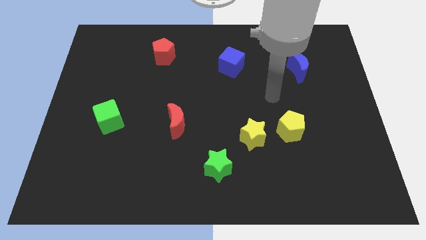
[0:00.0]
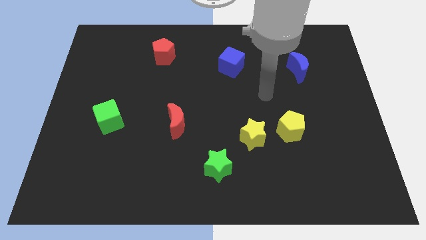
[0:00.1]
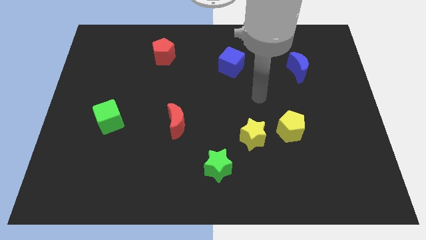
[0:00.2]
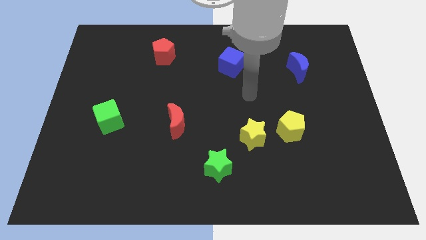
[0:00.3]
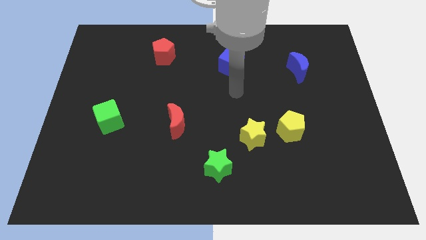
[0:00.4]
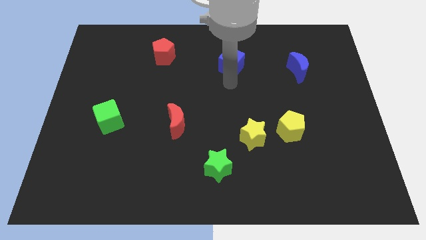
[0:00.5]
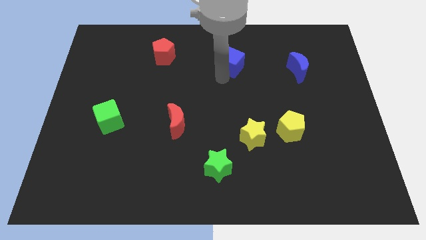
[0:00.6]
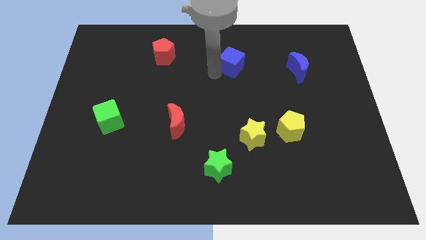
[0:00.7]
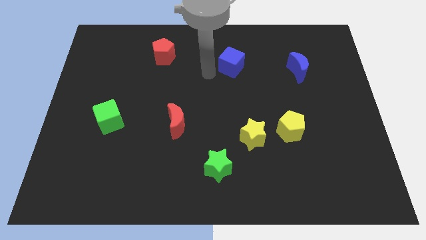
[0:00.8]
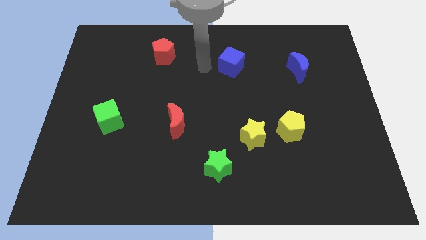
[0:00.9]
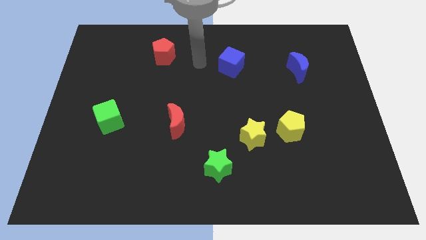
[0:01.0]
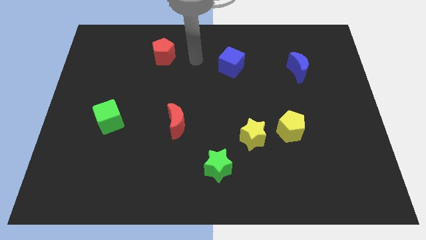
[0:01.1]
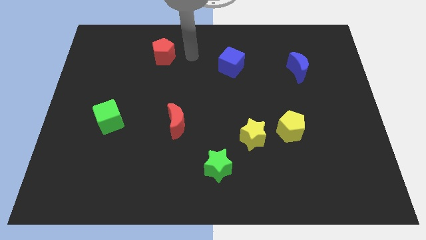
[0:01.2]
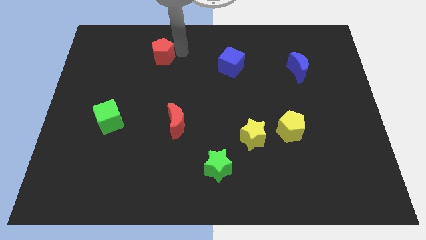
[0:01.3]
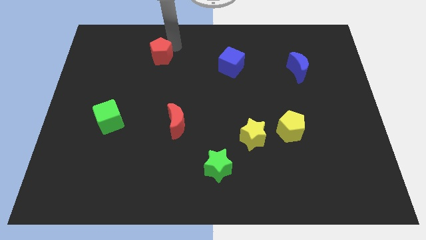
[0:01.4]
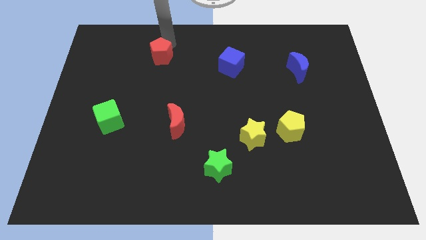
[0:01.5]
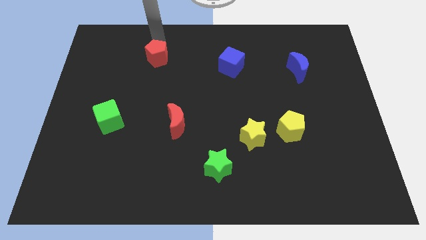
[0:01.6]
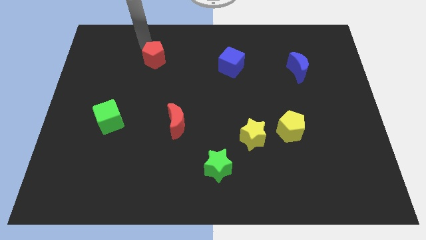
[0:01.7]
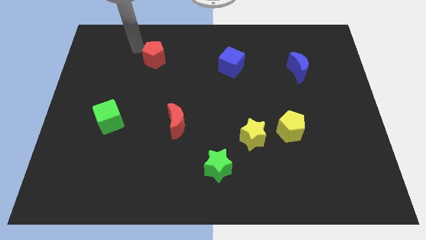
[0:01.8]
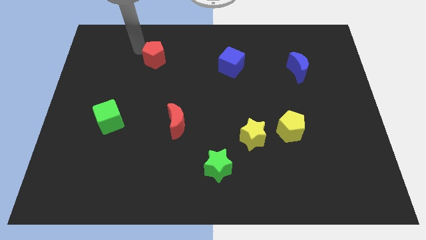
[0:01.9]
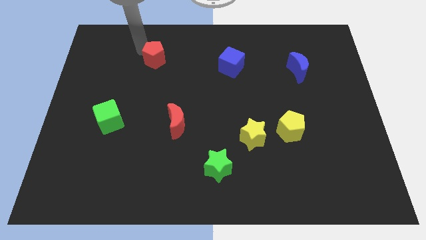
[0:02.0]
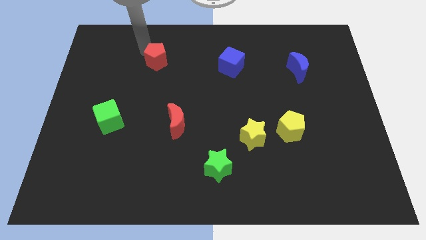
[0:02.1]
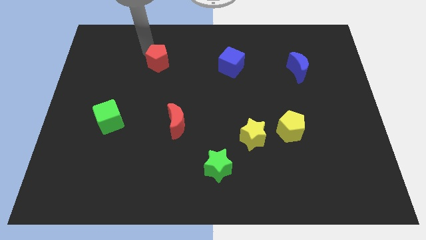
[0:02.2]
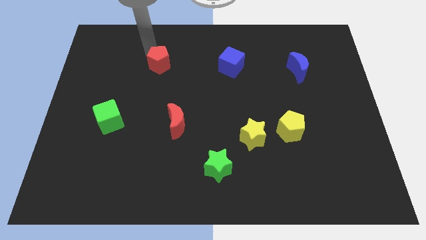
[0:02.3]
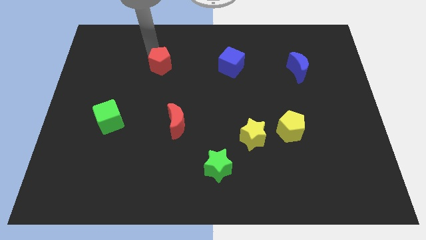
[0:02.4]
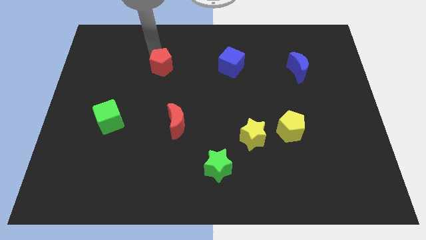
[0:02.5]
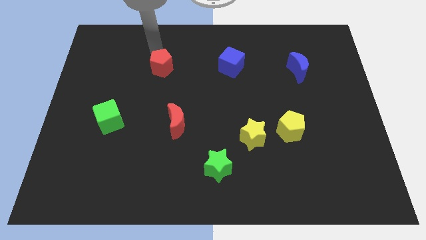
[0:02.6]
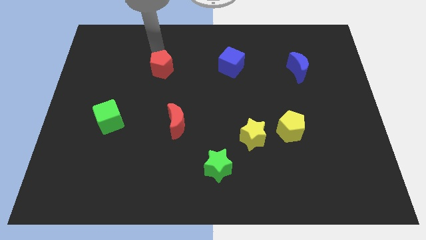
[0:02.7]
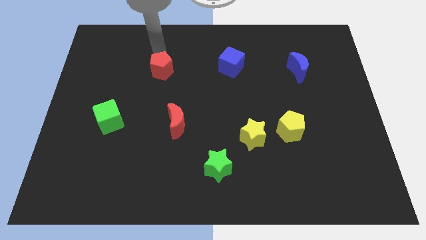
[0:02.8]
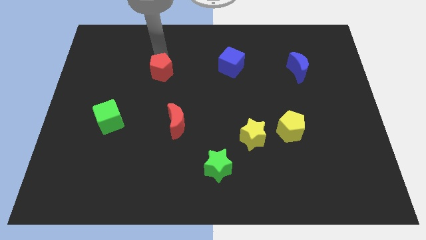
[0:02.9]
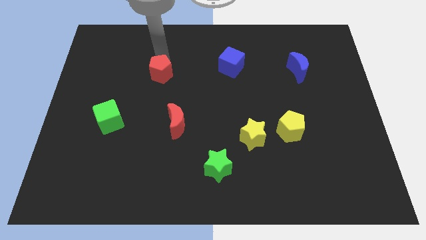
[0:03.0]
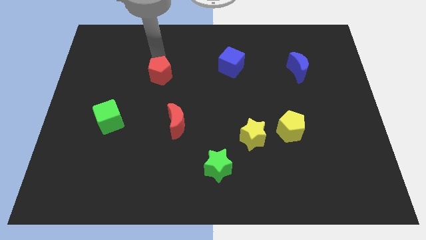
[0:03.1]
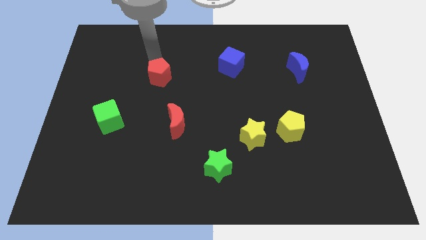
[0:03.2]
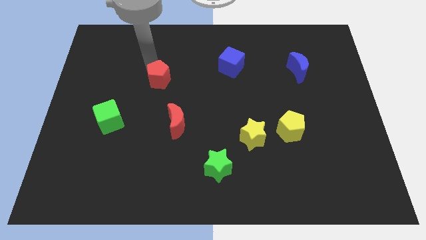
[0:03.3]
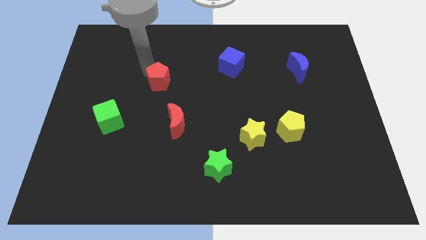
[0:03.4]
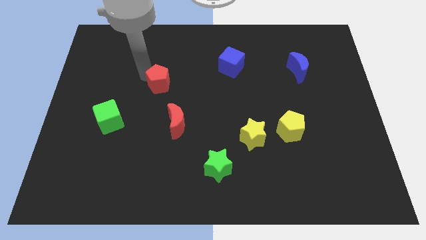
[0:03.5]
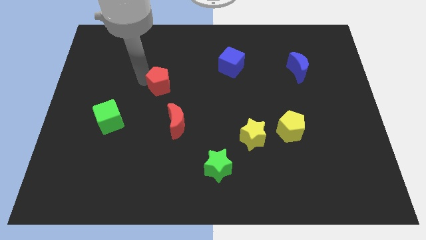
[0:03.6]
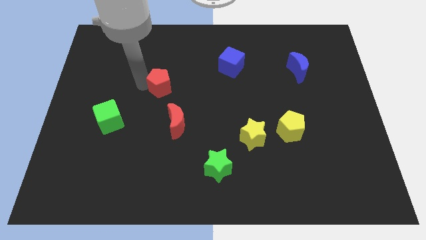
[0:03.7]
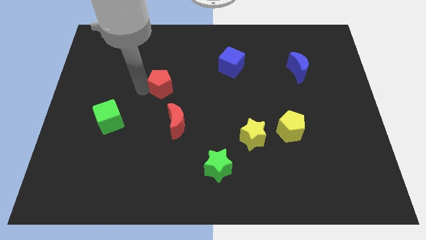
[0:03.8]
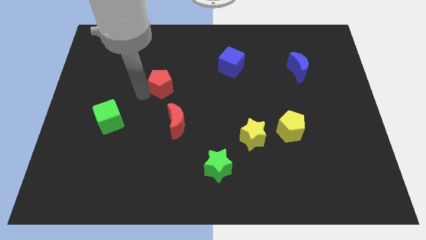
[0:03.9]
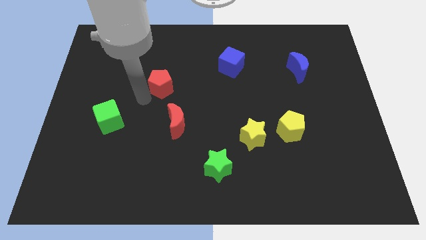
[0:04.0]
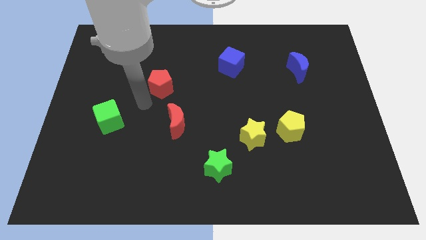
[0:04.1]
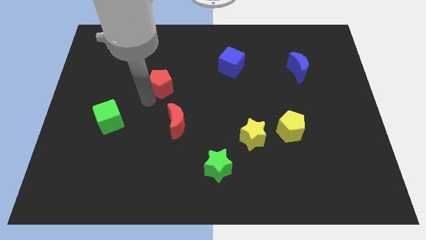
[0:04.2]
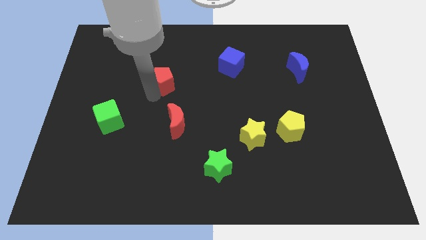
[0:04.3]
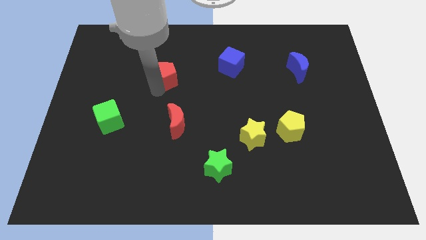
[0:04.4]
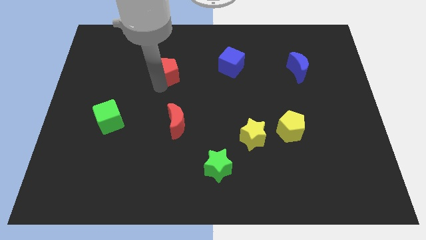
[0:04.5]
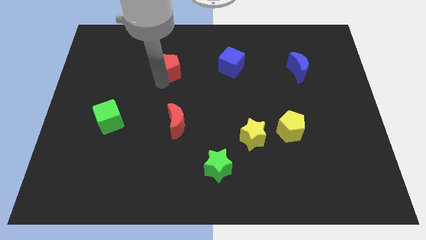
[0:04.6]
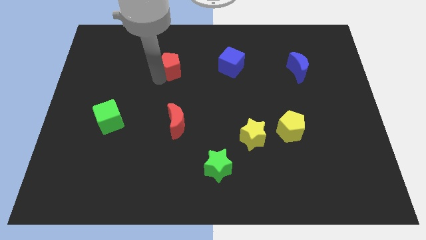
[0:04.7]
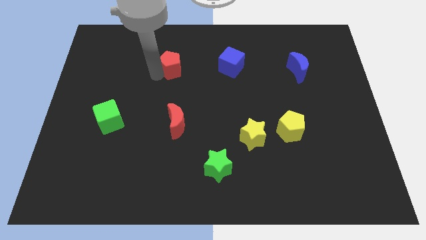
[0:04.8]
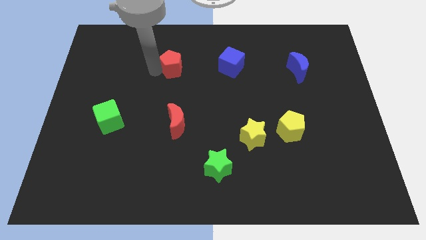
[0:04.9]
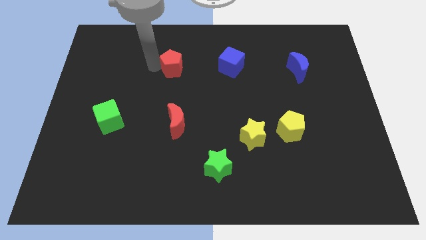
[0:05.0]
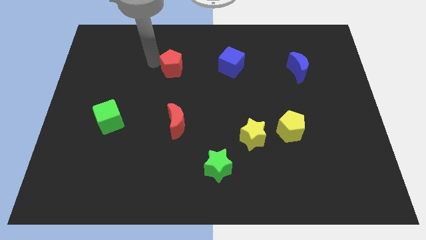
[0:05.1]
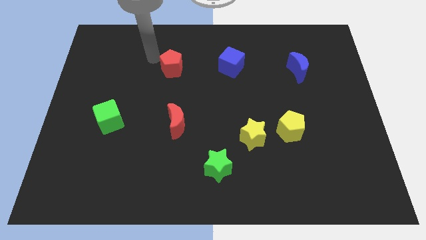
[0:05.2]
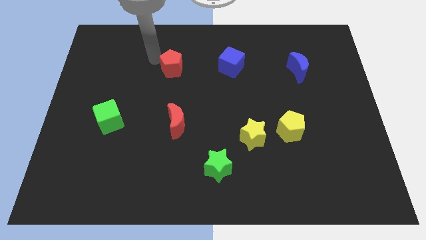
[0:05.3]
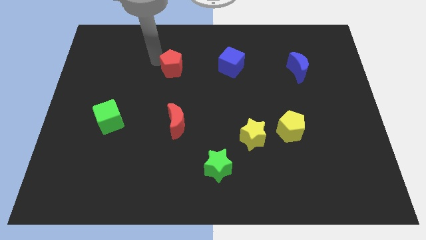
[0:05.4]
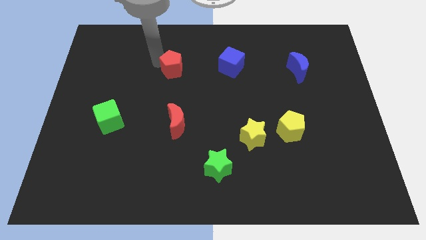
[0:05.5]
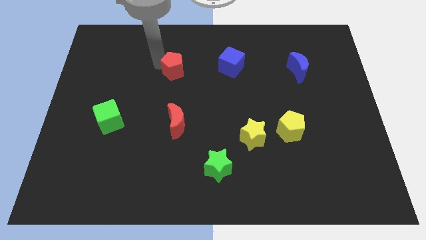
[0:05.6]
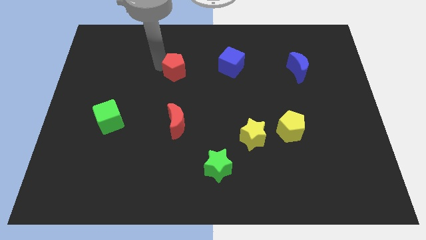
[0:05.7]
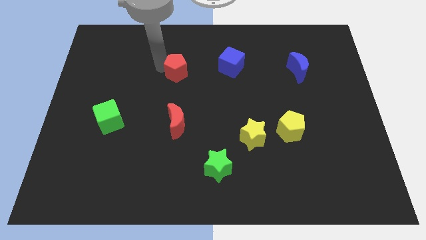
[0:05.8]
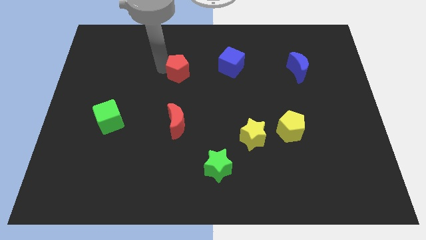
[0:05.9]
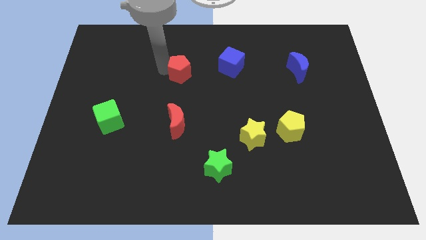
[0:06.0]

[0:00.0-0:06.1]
move the red pentagon to the middle of the board

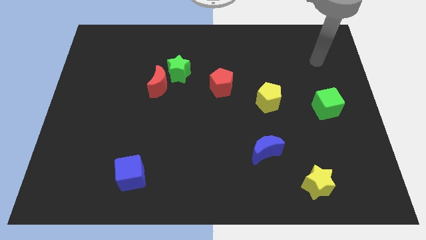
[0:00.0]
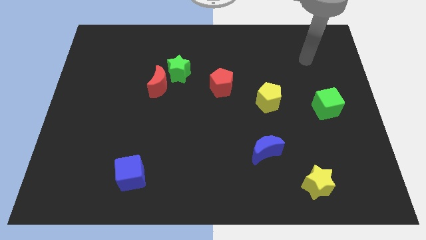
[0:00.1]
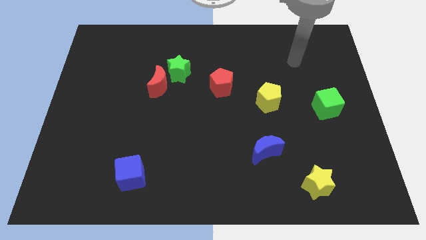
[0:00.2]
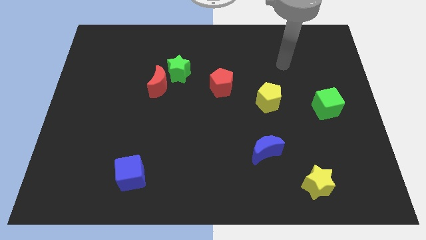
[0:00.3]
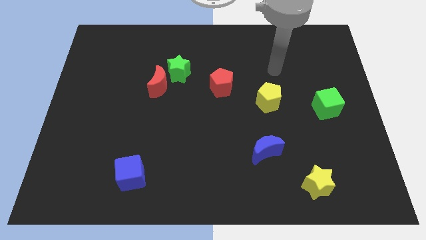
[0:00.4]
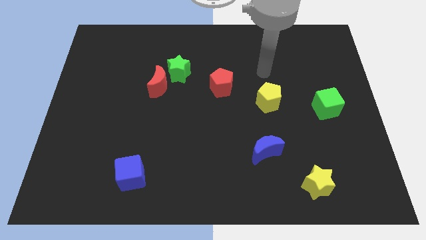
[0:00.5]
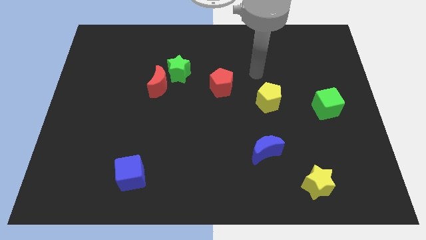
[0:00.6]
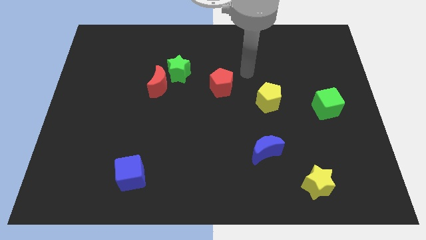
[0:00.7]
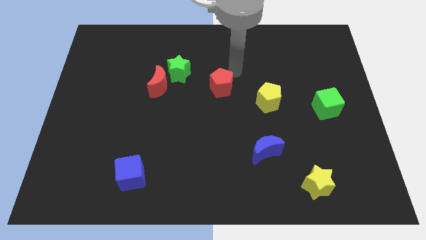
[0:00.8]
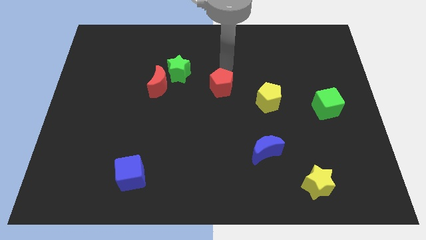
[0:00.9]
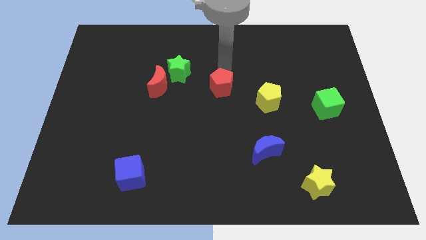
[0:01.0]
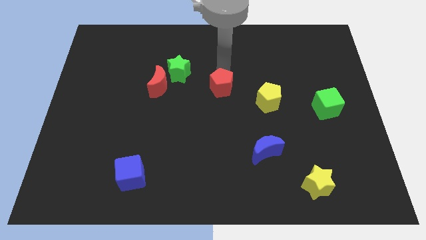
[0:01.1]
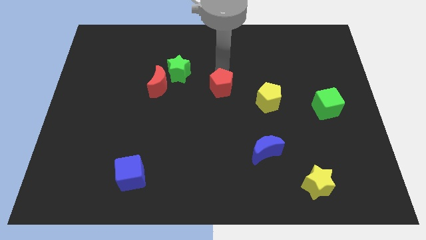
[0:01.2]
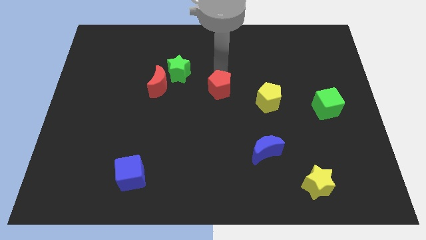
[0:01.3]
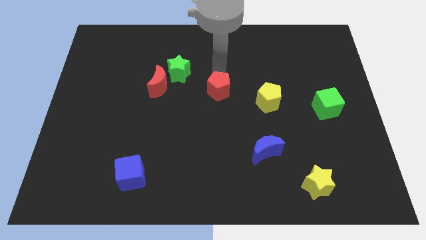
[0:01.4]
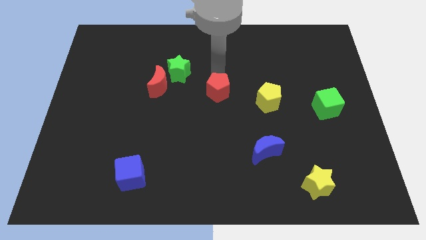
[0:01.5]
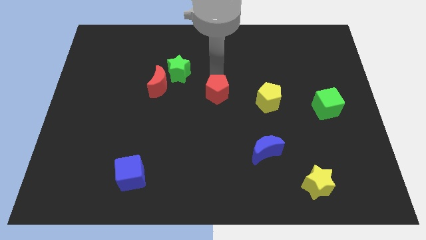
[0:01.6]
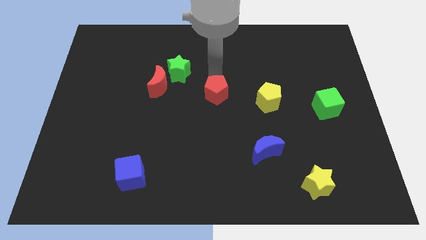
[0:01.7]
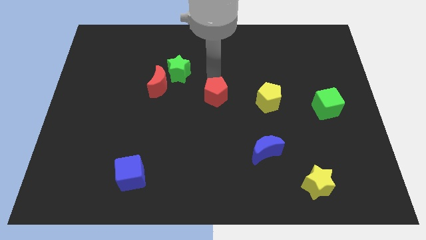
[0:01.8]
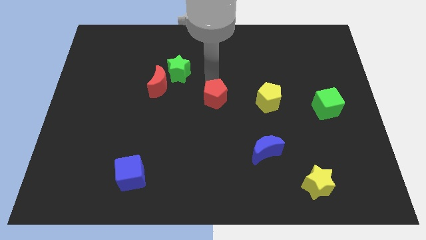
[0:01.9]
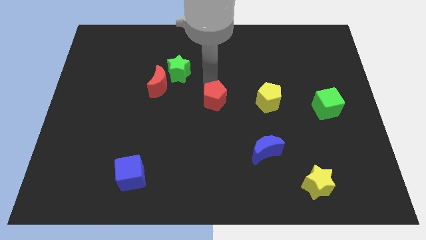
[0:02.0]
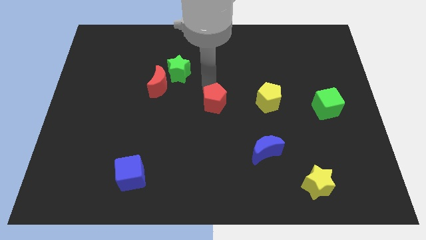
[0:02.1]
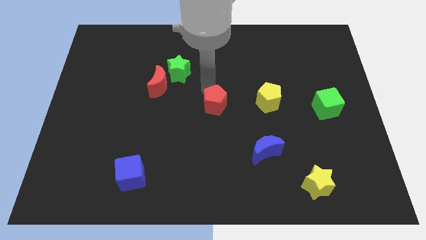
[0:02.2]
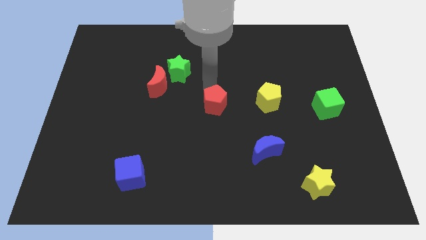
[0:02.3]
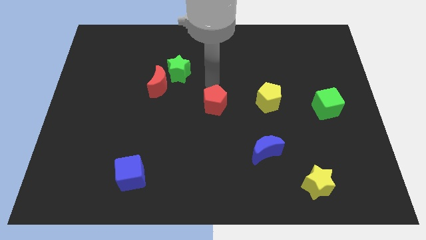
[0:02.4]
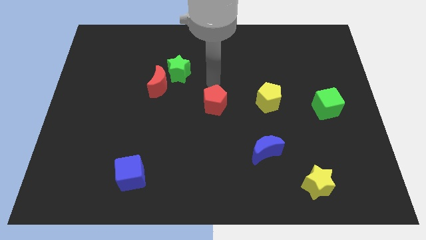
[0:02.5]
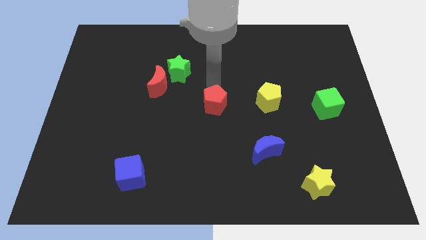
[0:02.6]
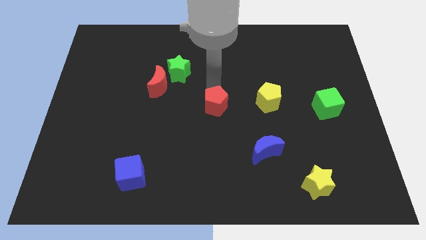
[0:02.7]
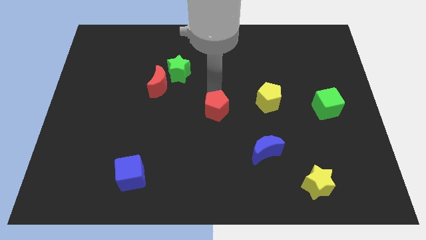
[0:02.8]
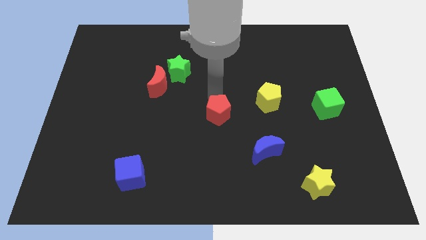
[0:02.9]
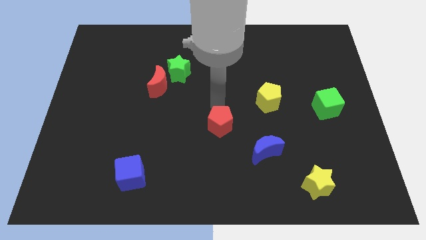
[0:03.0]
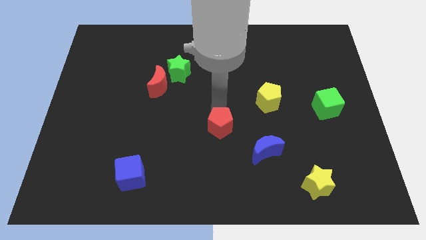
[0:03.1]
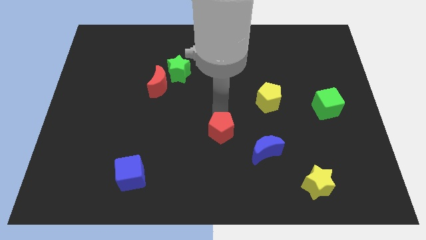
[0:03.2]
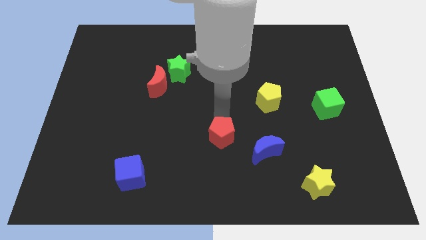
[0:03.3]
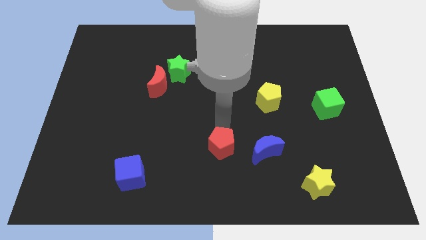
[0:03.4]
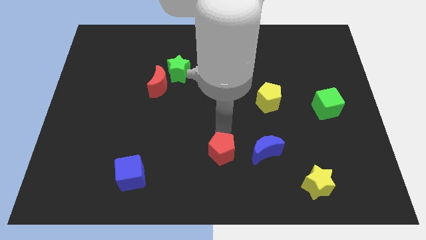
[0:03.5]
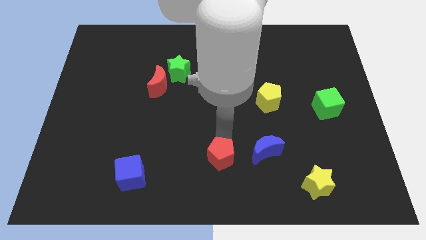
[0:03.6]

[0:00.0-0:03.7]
move the red pentagon to the bottom
